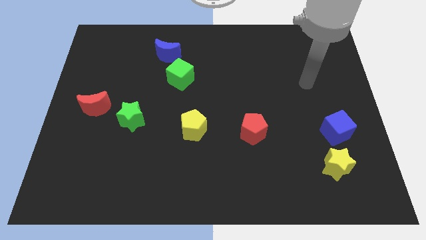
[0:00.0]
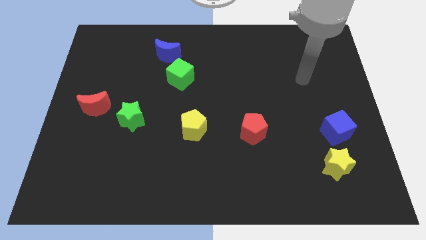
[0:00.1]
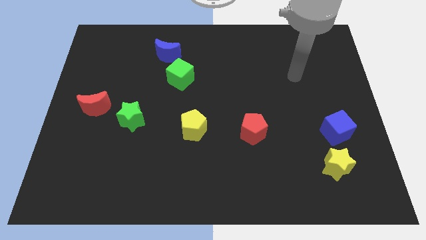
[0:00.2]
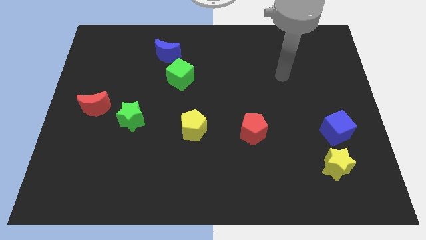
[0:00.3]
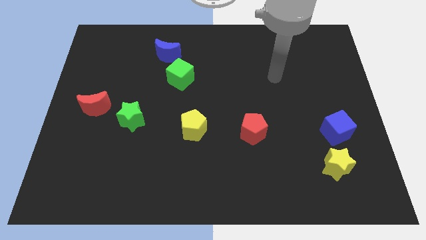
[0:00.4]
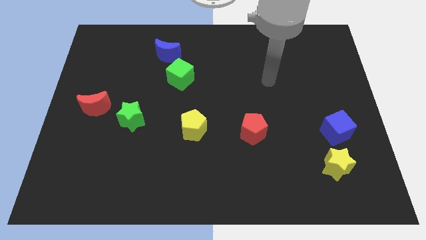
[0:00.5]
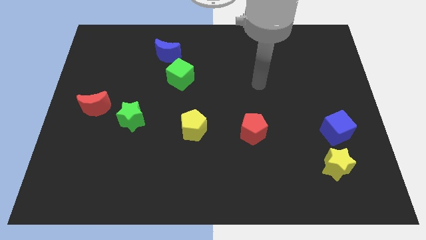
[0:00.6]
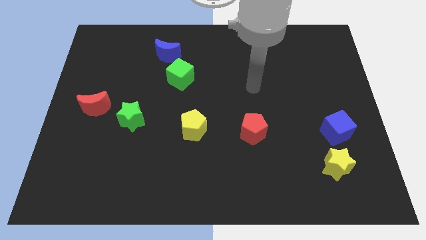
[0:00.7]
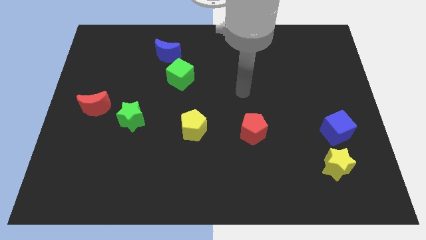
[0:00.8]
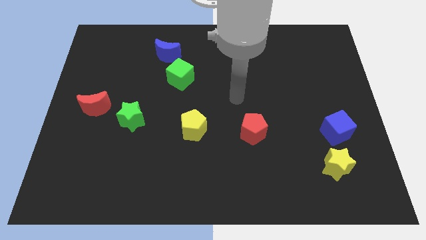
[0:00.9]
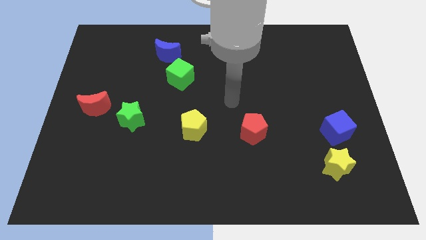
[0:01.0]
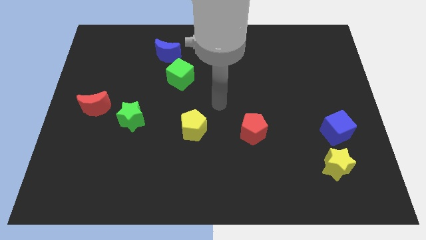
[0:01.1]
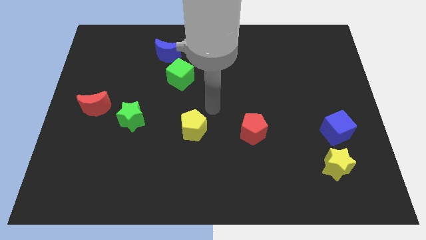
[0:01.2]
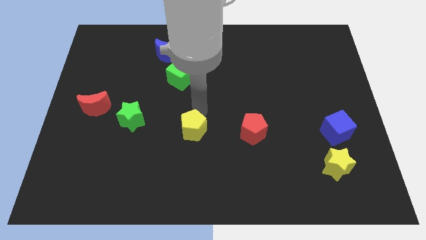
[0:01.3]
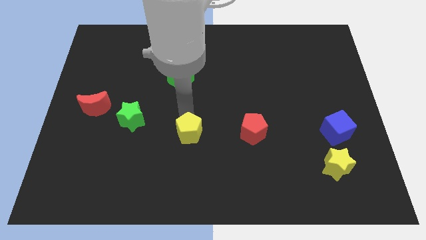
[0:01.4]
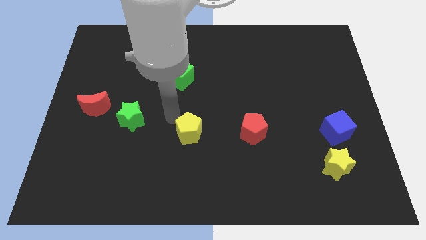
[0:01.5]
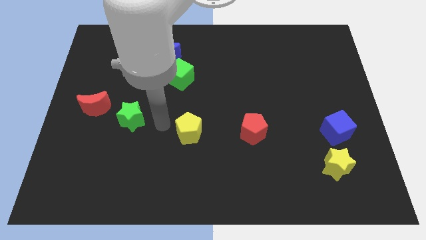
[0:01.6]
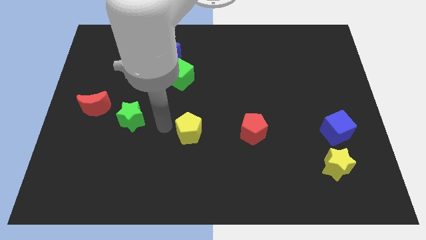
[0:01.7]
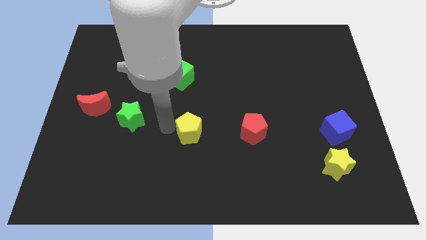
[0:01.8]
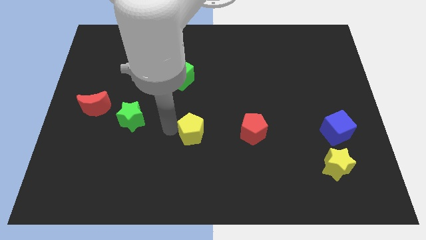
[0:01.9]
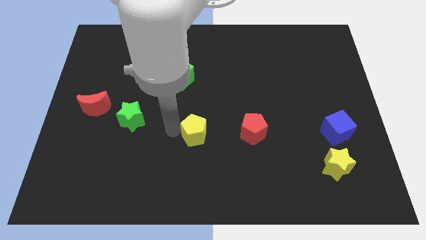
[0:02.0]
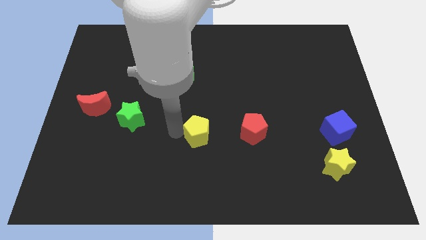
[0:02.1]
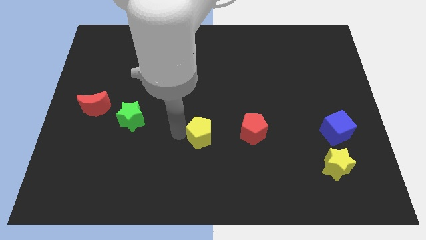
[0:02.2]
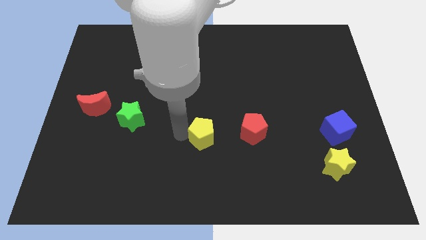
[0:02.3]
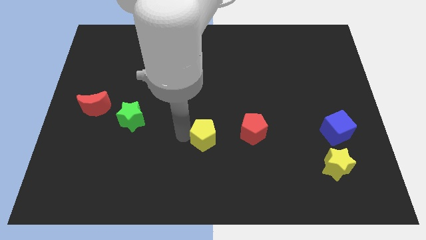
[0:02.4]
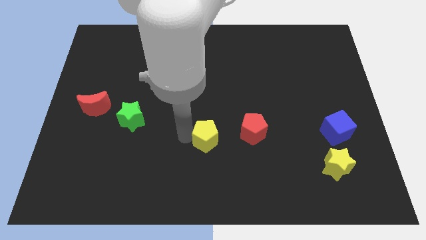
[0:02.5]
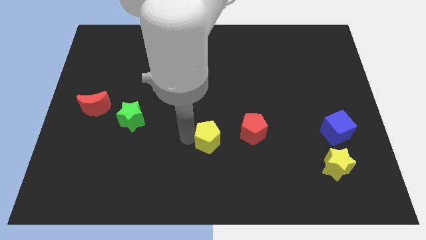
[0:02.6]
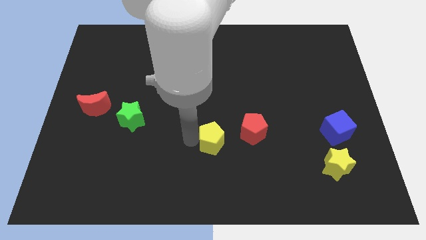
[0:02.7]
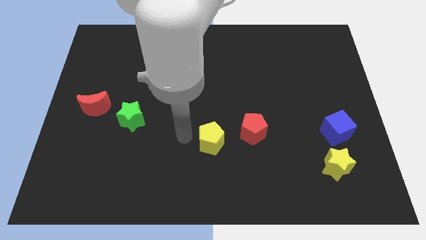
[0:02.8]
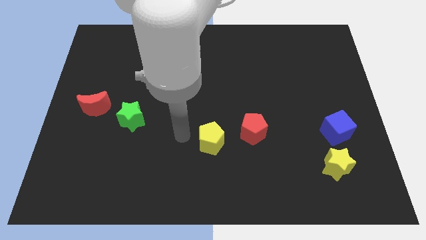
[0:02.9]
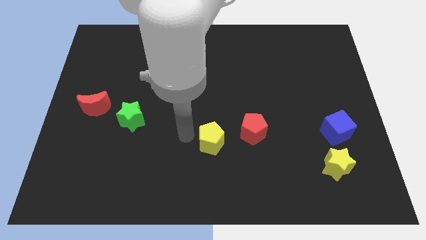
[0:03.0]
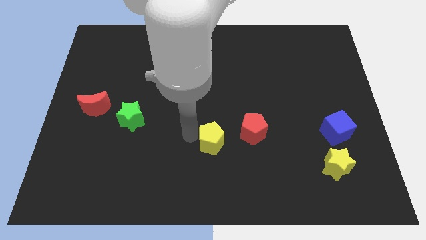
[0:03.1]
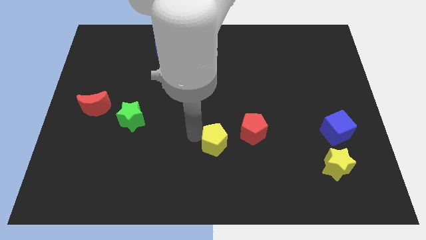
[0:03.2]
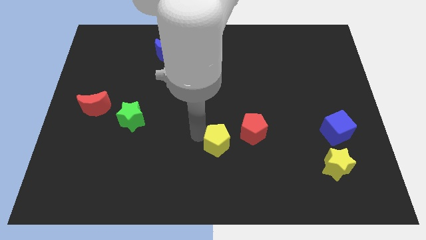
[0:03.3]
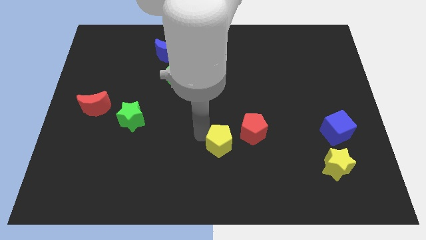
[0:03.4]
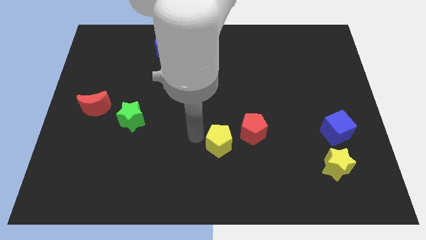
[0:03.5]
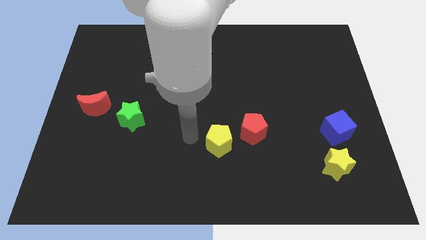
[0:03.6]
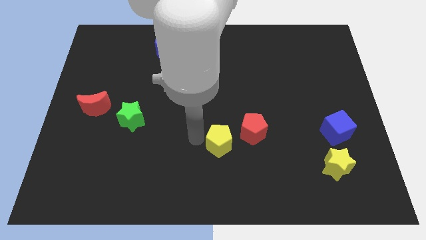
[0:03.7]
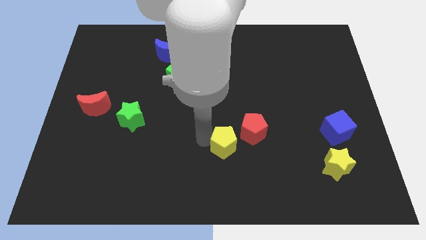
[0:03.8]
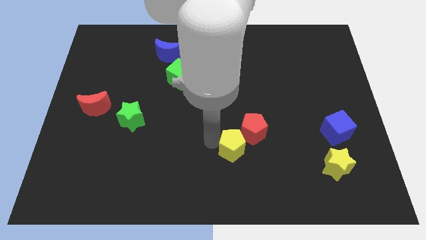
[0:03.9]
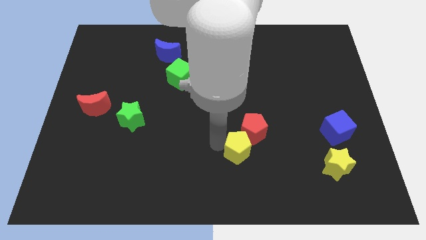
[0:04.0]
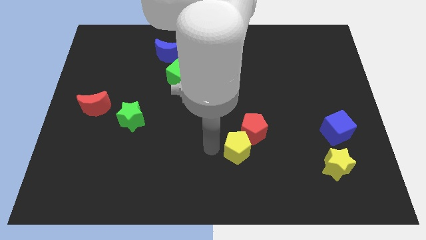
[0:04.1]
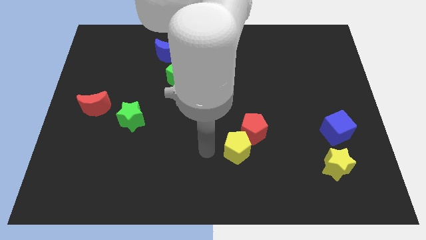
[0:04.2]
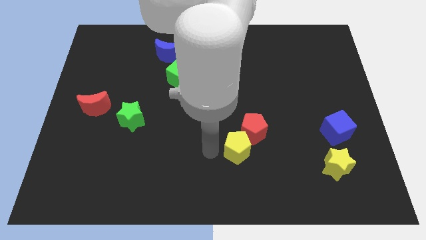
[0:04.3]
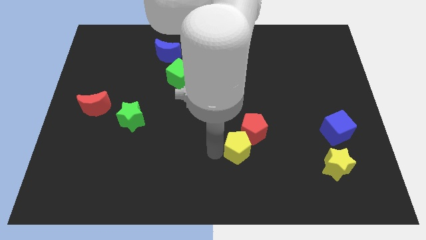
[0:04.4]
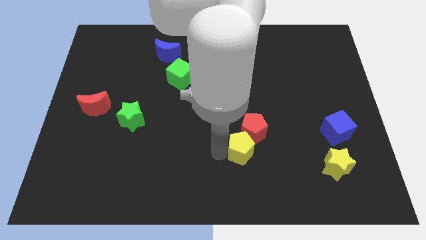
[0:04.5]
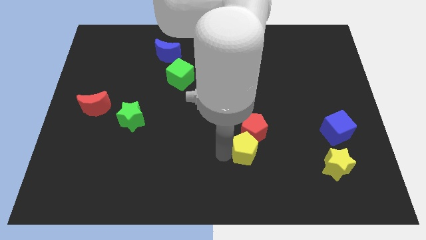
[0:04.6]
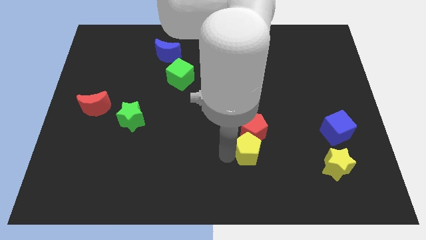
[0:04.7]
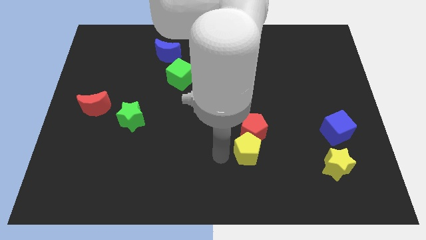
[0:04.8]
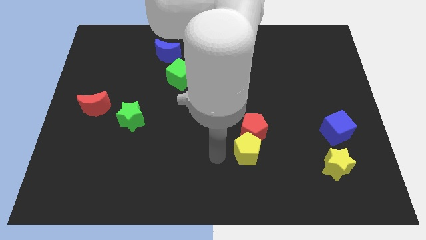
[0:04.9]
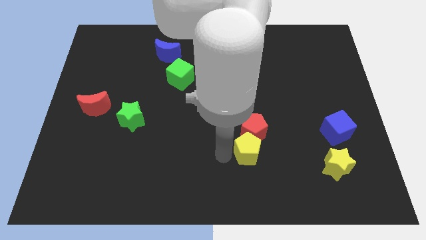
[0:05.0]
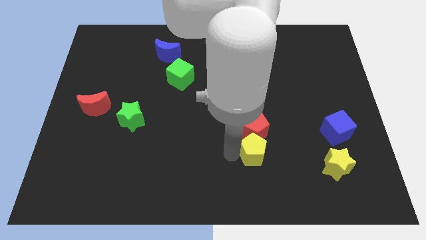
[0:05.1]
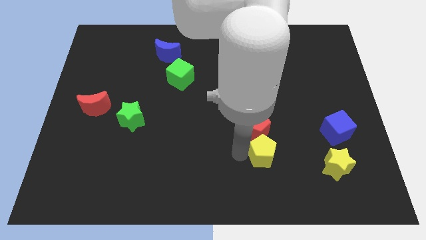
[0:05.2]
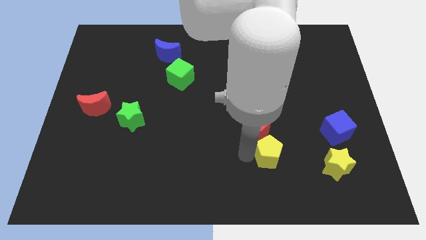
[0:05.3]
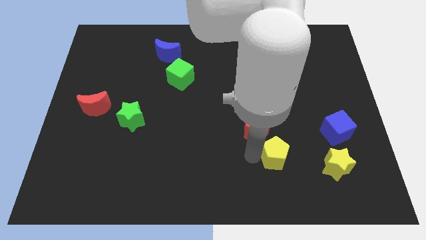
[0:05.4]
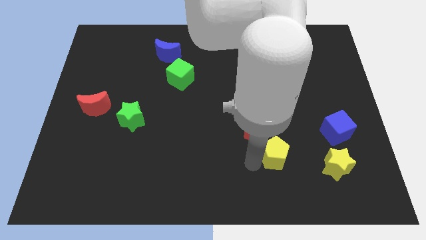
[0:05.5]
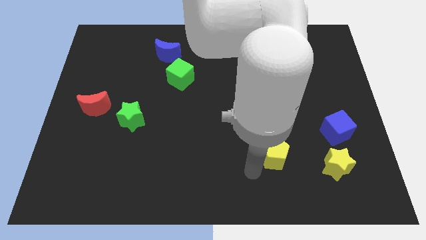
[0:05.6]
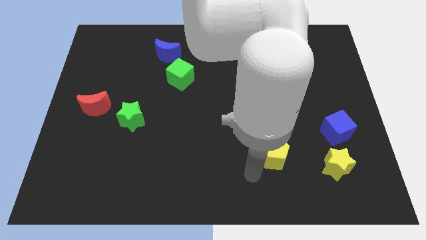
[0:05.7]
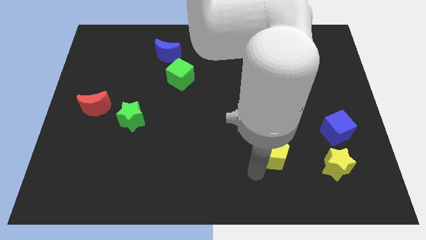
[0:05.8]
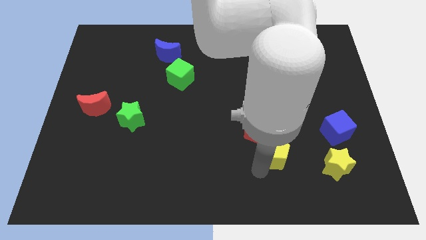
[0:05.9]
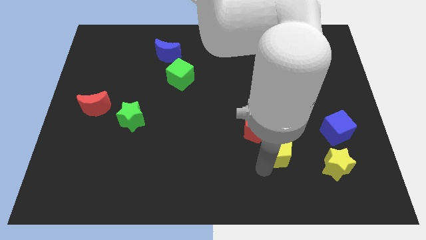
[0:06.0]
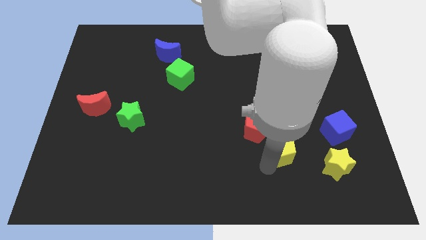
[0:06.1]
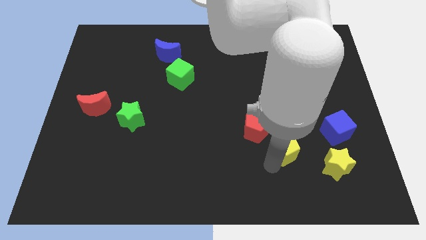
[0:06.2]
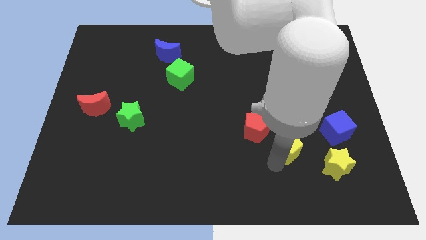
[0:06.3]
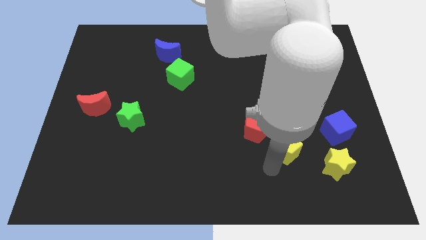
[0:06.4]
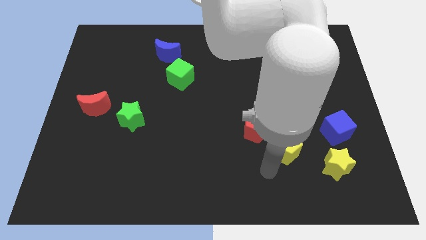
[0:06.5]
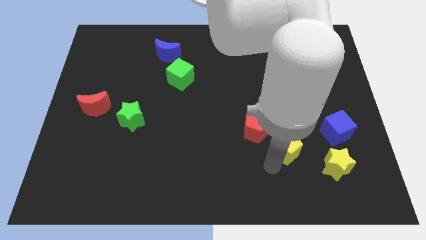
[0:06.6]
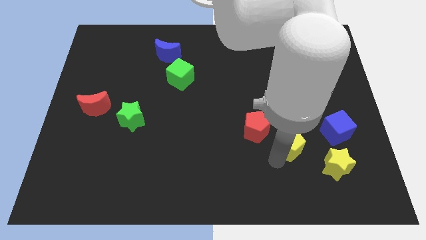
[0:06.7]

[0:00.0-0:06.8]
put the yellow pentagon right of the red pentagon

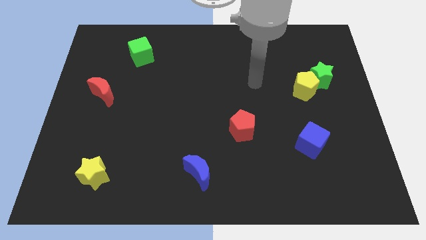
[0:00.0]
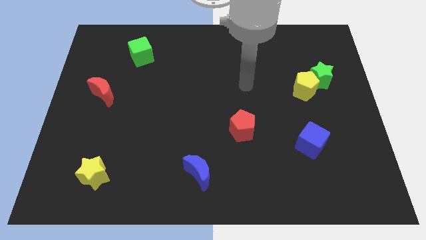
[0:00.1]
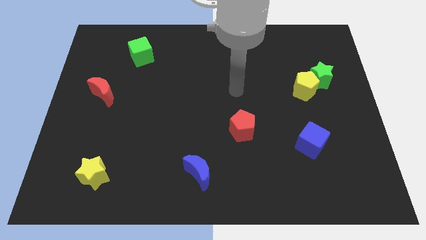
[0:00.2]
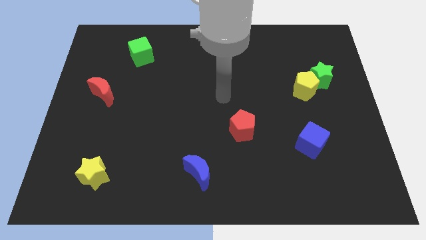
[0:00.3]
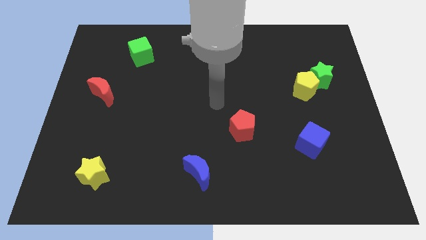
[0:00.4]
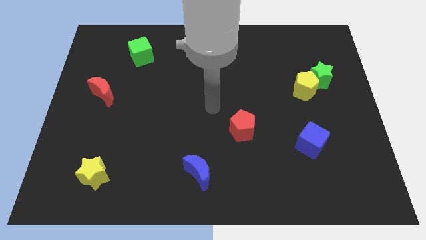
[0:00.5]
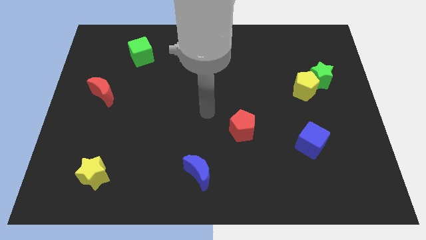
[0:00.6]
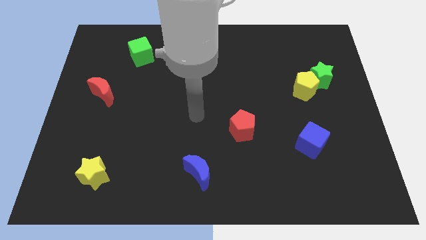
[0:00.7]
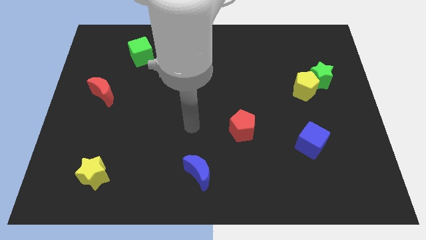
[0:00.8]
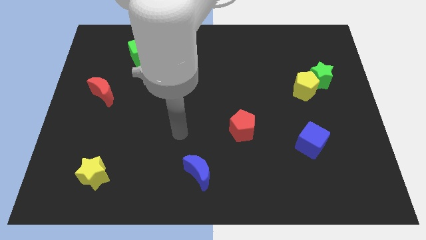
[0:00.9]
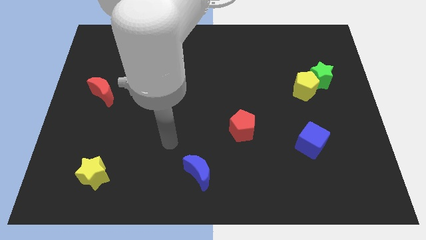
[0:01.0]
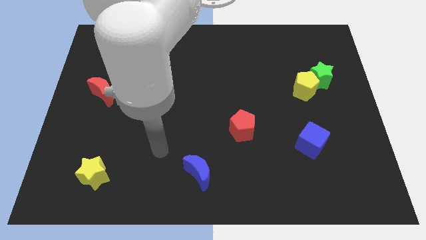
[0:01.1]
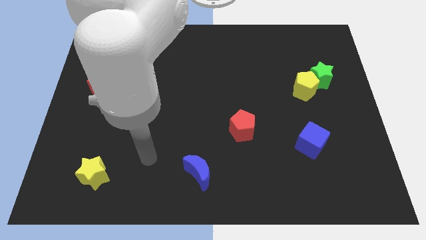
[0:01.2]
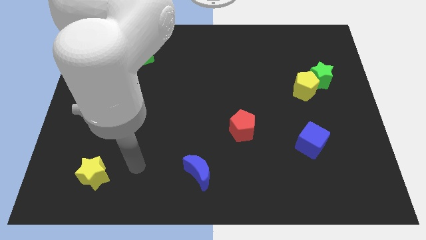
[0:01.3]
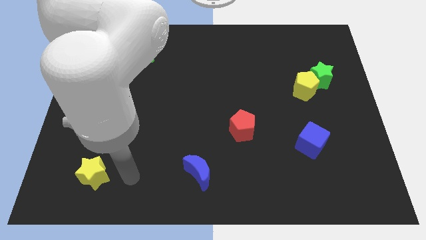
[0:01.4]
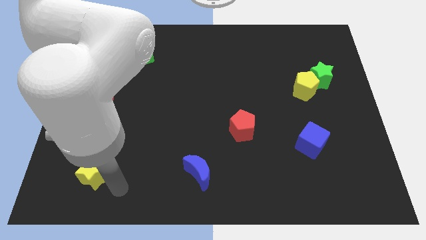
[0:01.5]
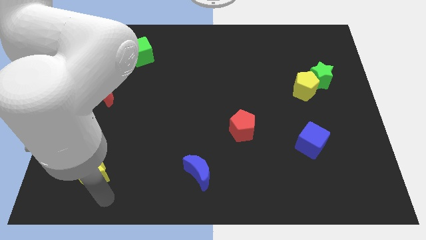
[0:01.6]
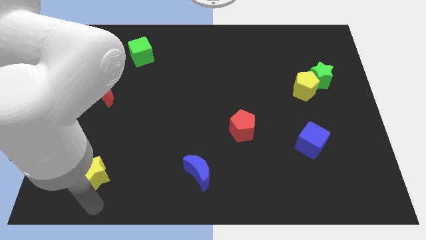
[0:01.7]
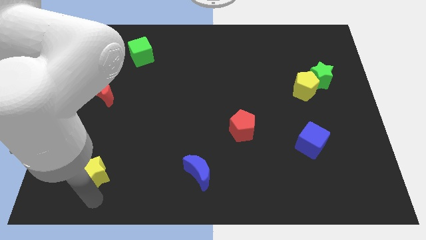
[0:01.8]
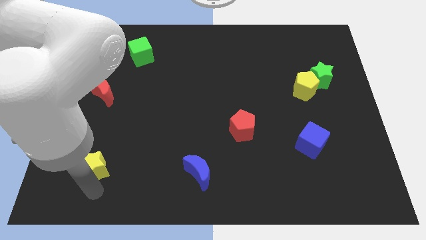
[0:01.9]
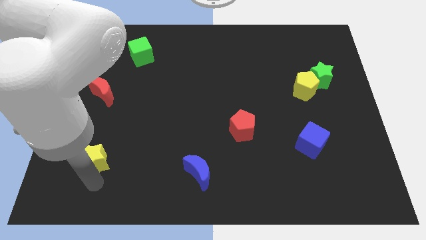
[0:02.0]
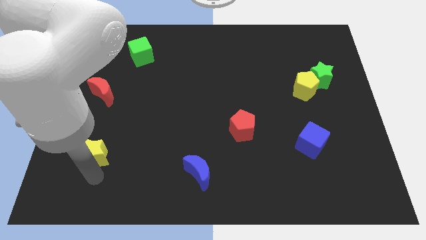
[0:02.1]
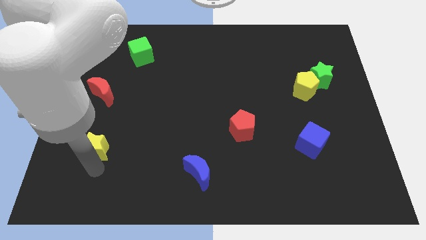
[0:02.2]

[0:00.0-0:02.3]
put the yellow star to the bottom side of the red moon
